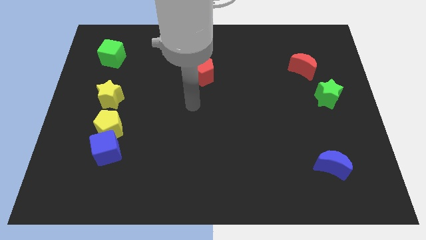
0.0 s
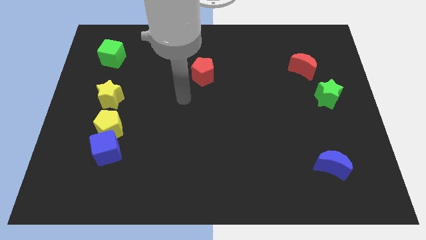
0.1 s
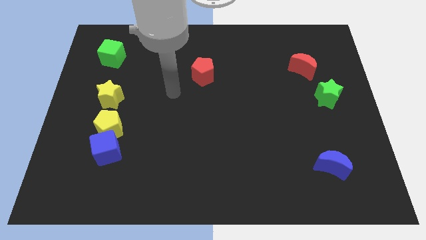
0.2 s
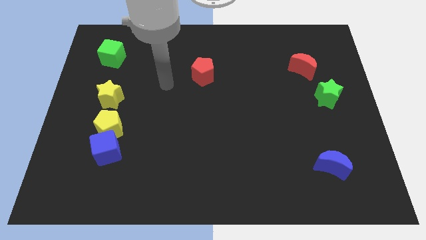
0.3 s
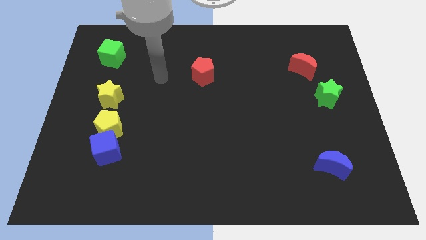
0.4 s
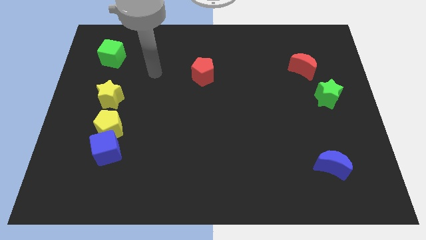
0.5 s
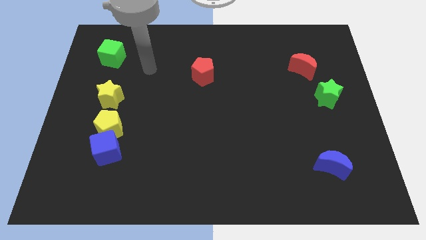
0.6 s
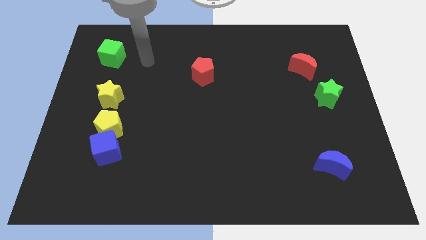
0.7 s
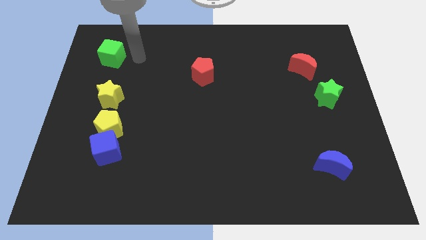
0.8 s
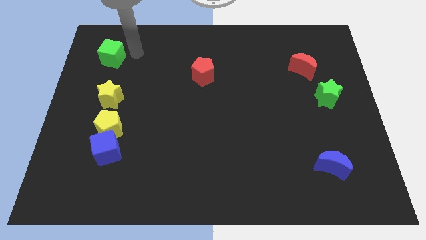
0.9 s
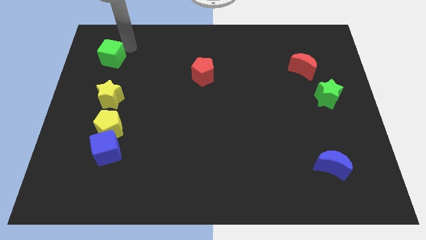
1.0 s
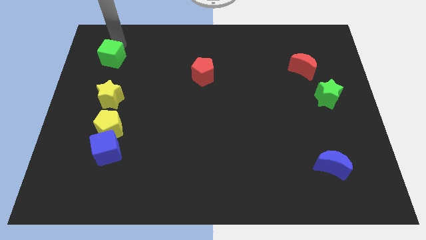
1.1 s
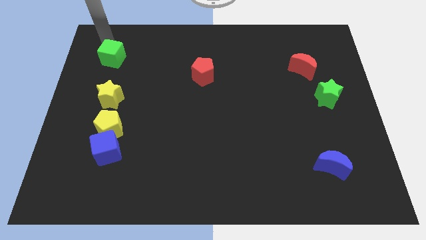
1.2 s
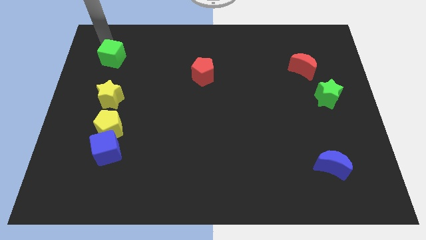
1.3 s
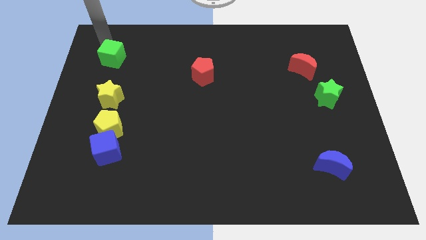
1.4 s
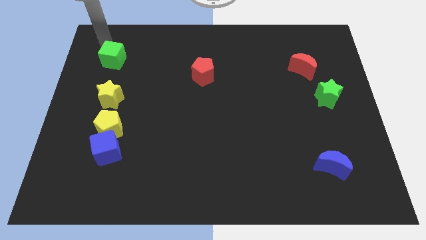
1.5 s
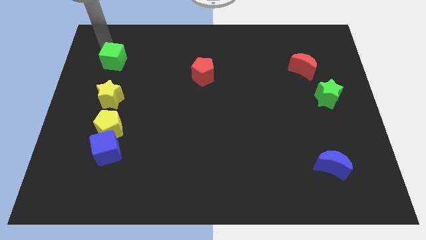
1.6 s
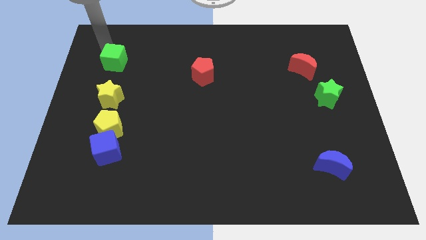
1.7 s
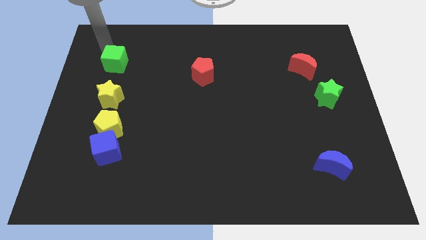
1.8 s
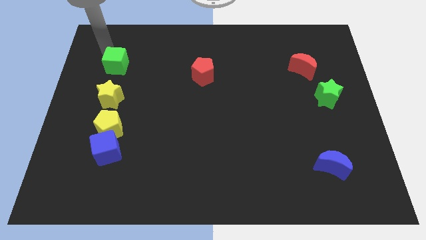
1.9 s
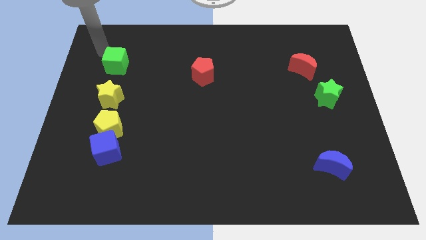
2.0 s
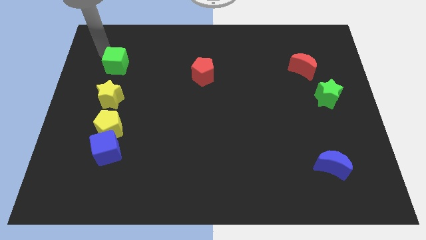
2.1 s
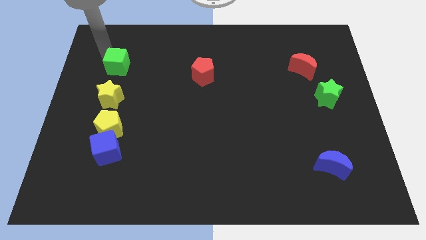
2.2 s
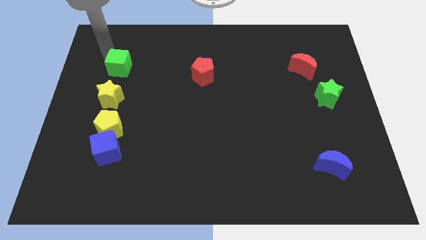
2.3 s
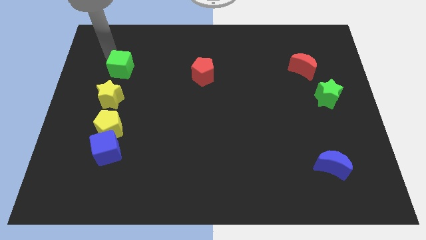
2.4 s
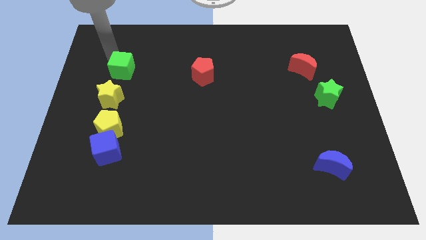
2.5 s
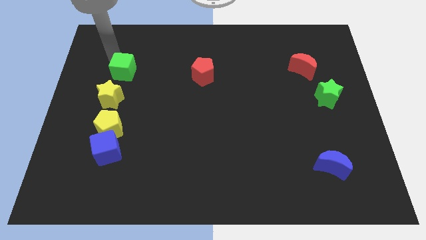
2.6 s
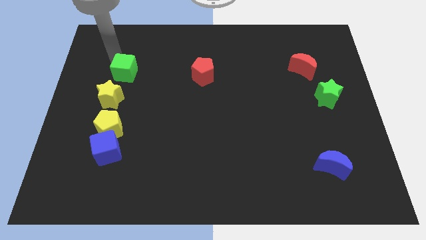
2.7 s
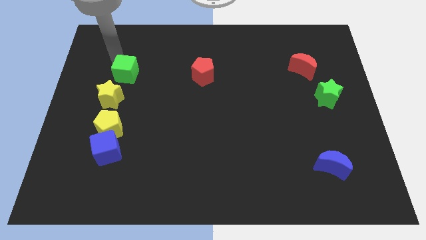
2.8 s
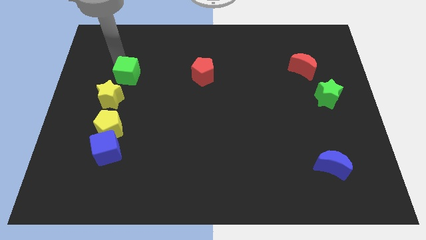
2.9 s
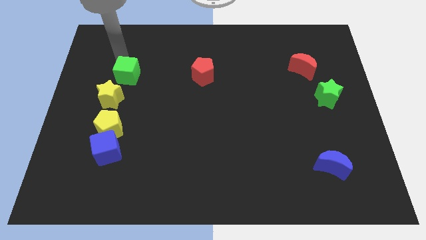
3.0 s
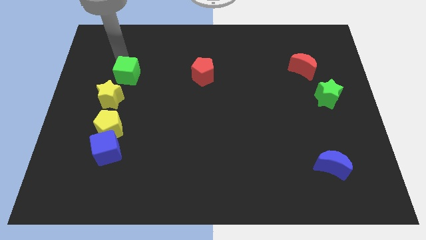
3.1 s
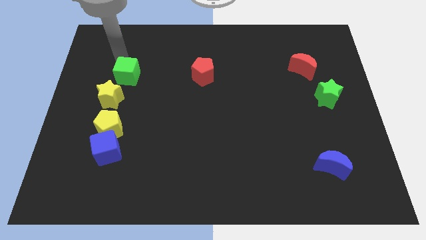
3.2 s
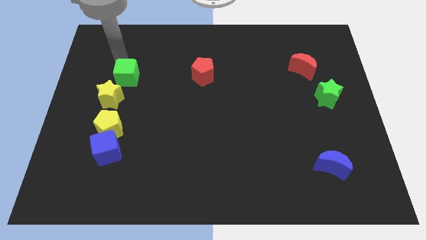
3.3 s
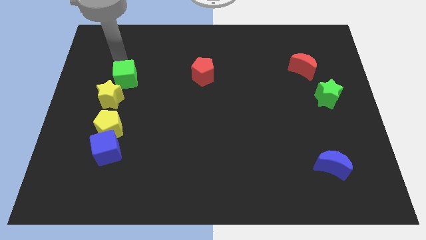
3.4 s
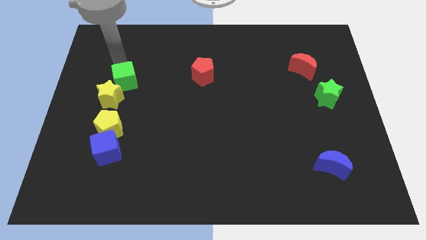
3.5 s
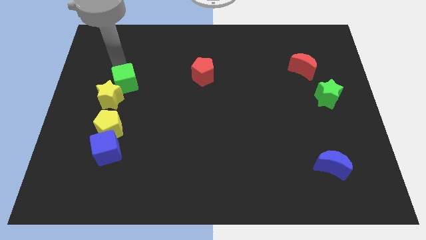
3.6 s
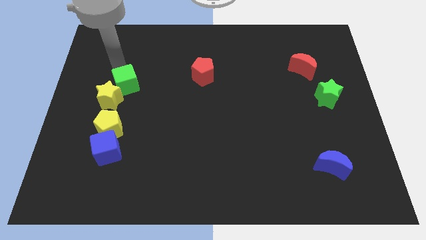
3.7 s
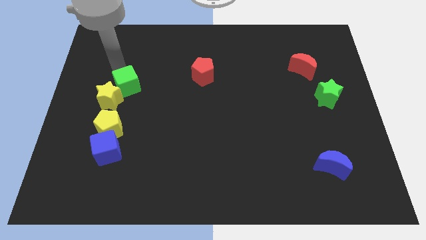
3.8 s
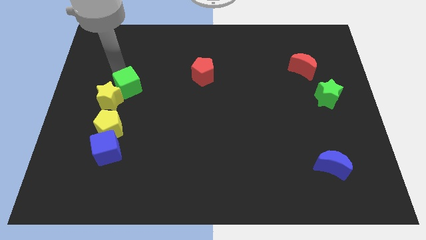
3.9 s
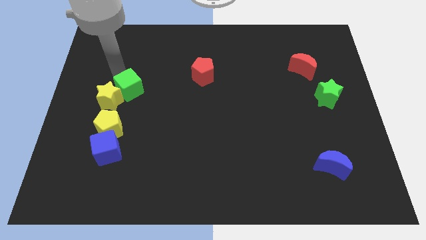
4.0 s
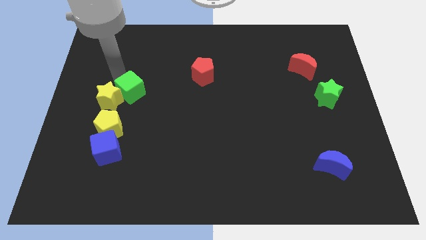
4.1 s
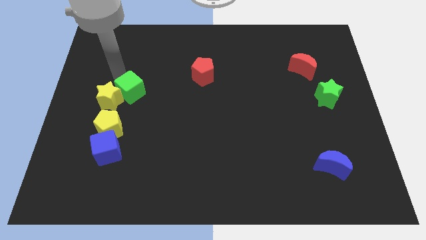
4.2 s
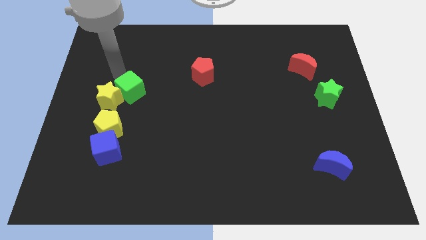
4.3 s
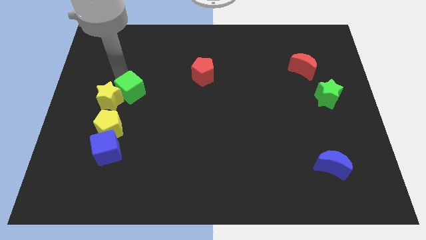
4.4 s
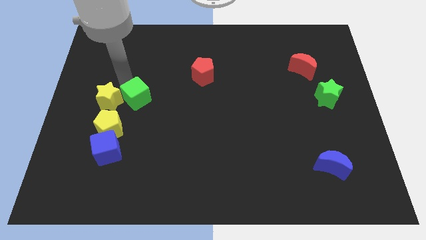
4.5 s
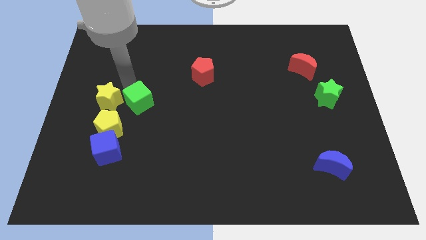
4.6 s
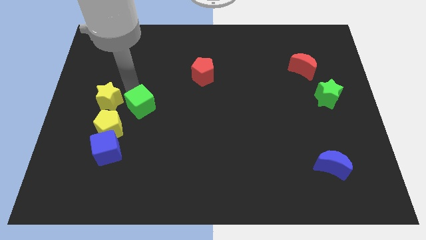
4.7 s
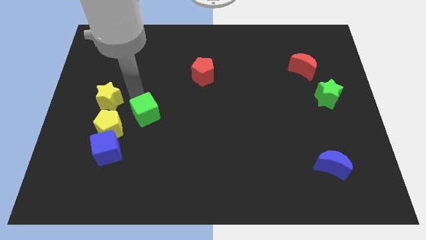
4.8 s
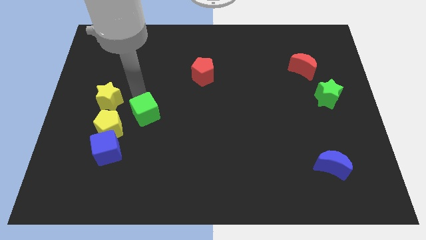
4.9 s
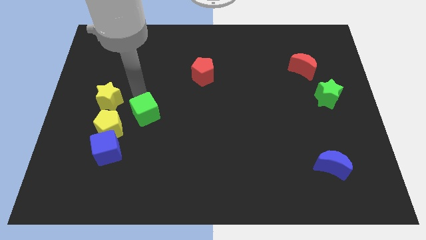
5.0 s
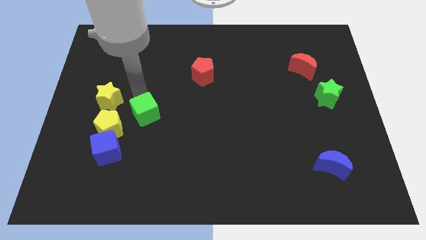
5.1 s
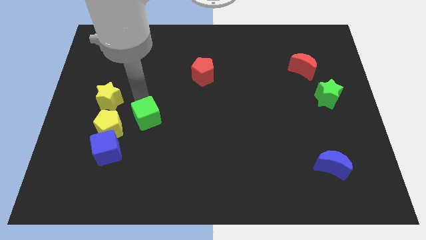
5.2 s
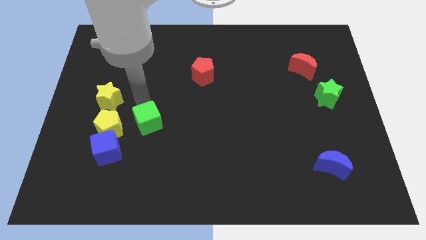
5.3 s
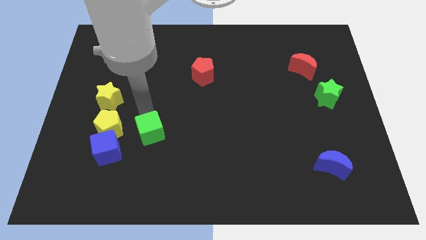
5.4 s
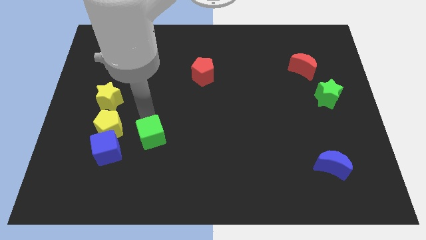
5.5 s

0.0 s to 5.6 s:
put the green cube to the right side of the blue cube
